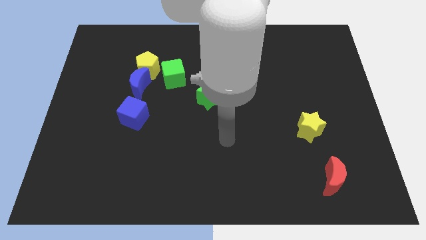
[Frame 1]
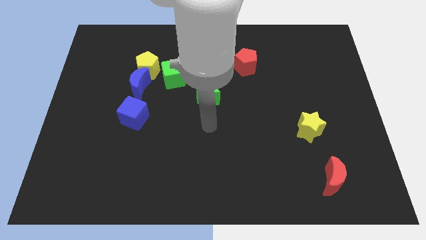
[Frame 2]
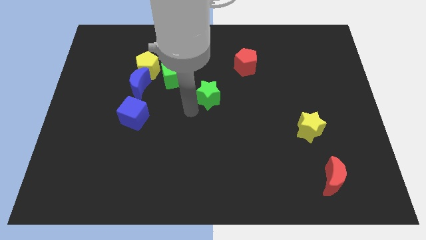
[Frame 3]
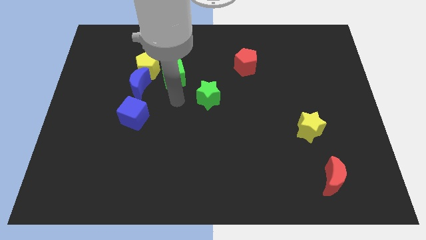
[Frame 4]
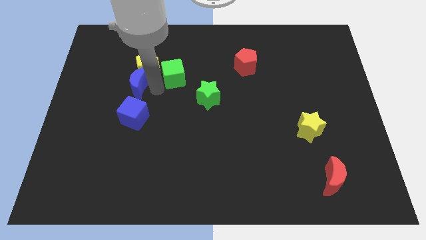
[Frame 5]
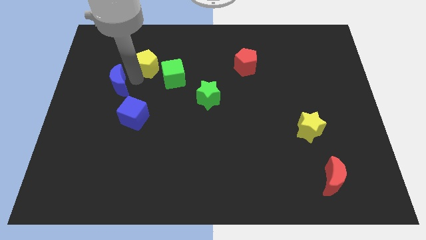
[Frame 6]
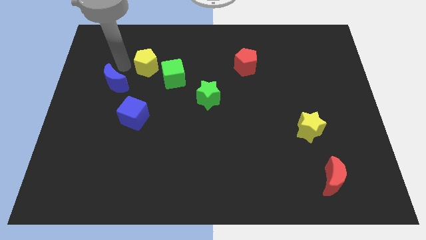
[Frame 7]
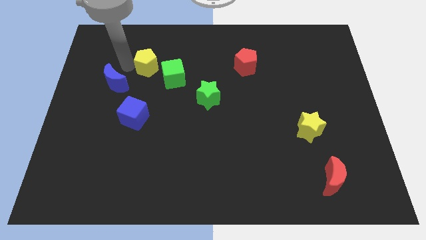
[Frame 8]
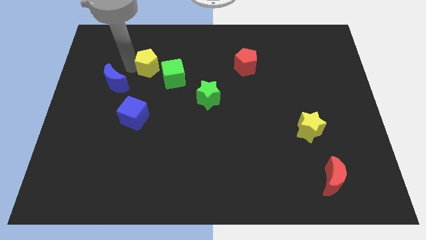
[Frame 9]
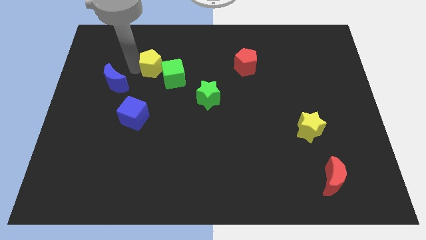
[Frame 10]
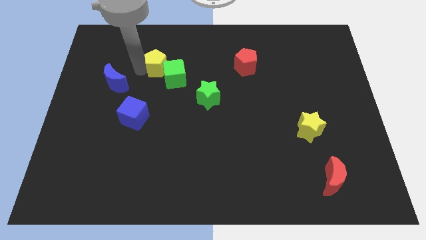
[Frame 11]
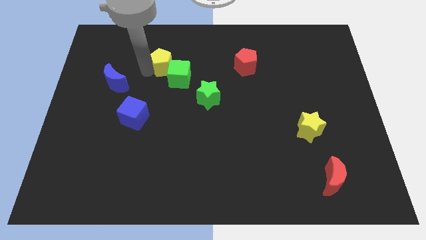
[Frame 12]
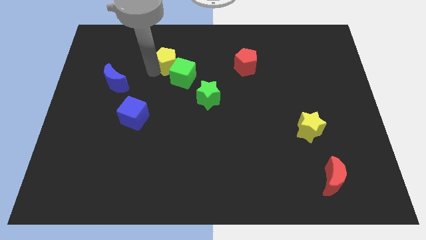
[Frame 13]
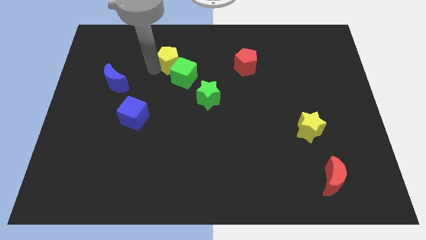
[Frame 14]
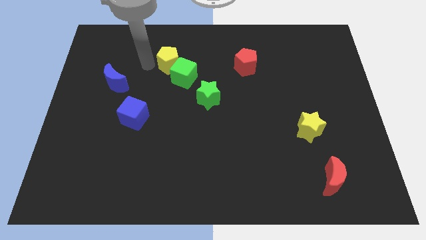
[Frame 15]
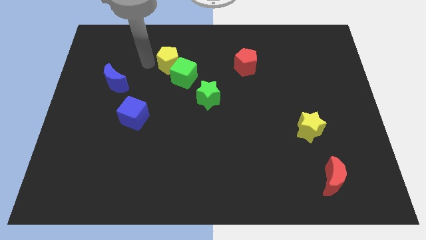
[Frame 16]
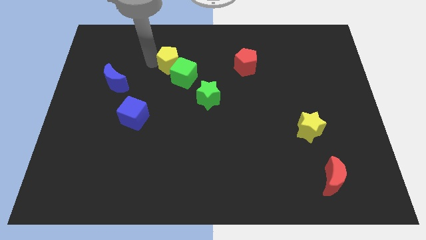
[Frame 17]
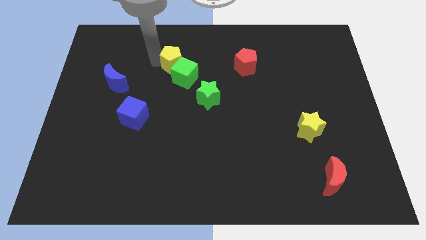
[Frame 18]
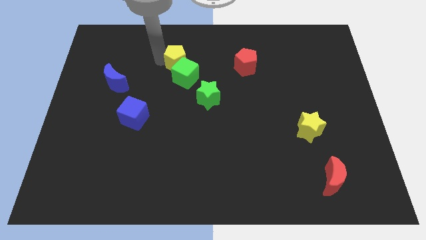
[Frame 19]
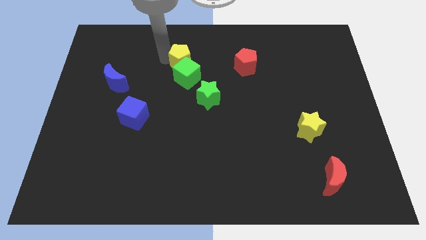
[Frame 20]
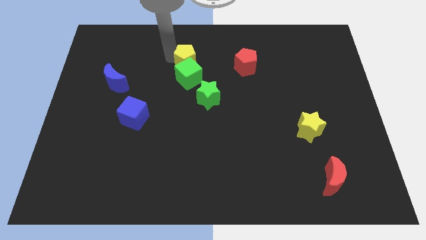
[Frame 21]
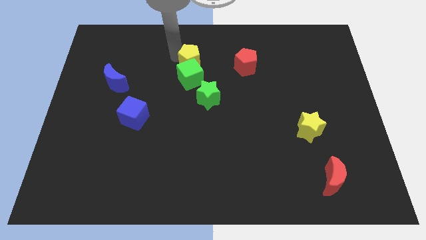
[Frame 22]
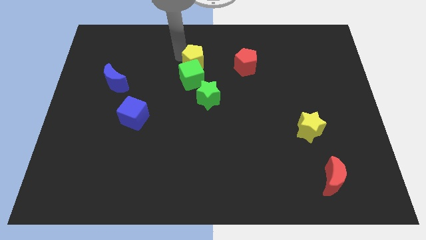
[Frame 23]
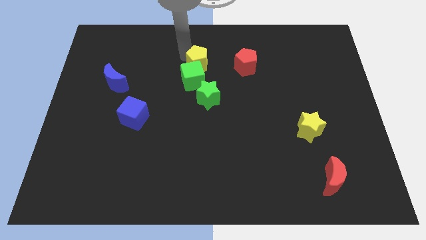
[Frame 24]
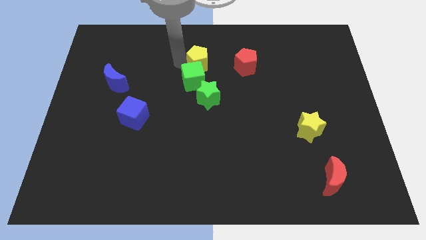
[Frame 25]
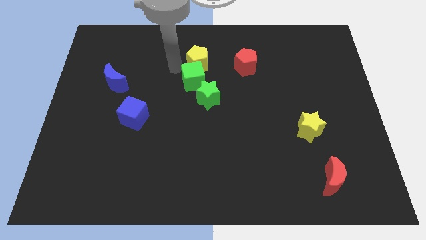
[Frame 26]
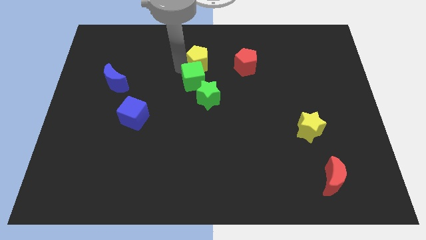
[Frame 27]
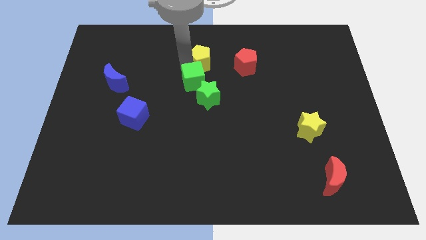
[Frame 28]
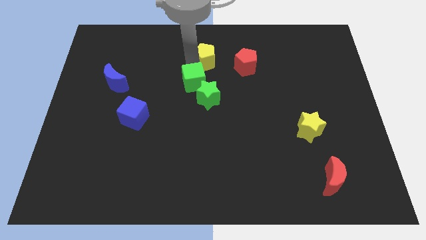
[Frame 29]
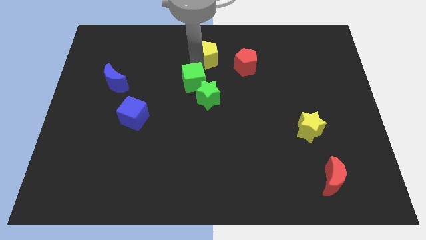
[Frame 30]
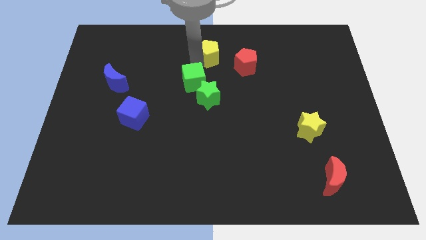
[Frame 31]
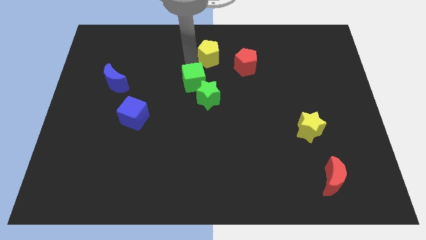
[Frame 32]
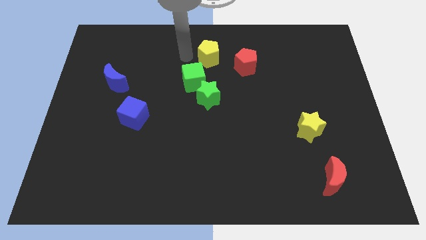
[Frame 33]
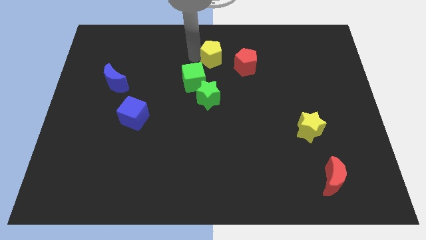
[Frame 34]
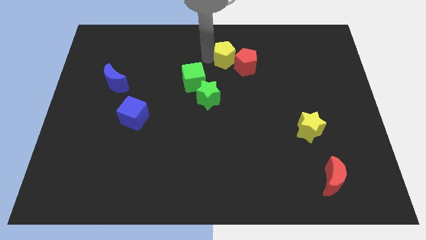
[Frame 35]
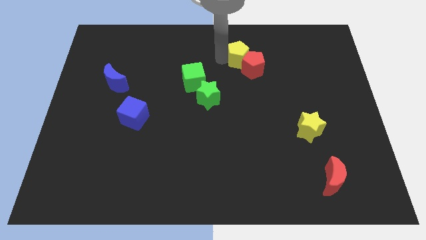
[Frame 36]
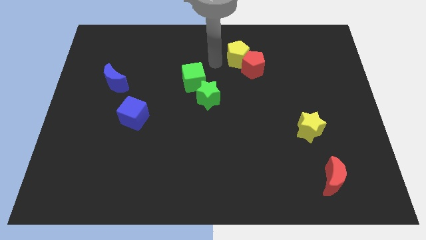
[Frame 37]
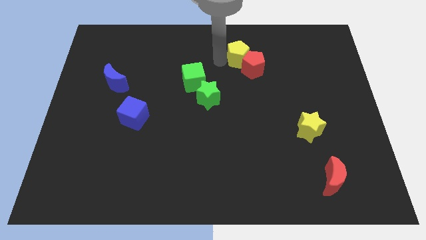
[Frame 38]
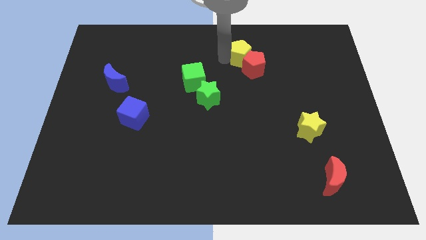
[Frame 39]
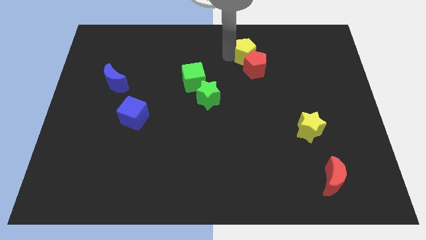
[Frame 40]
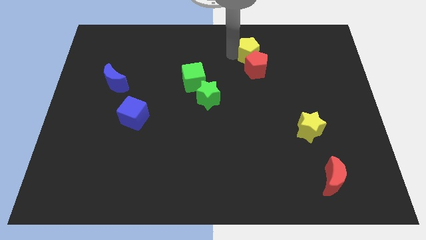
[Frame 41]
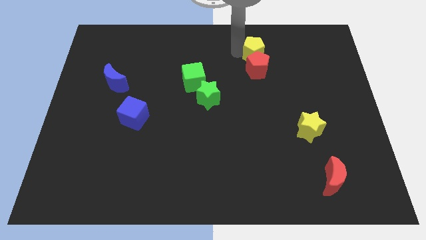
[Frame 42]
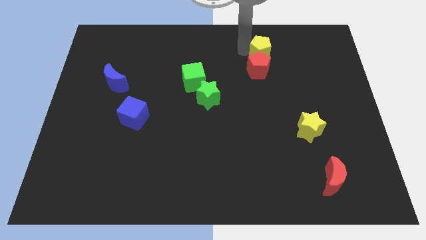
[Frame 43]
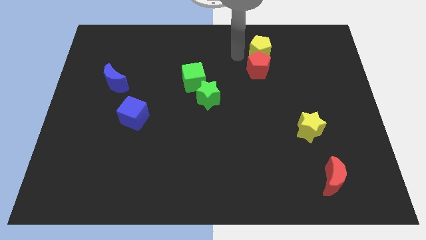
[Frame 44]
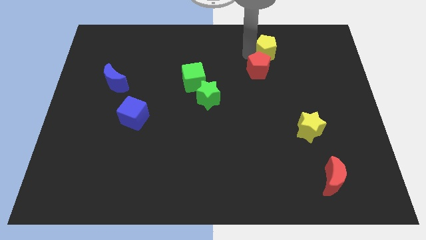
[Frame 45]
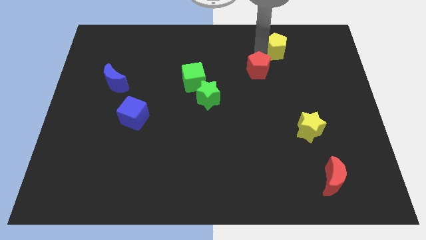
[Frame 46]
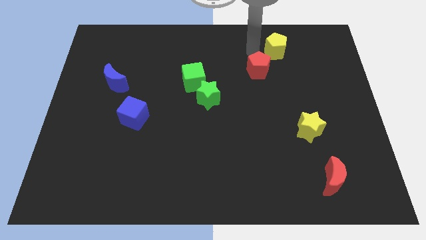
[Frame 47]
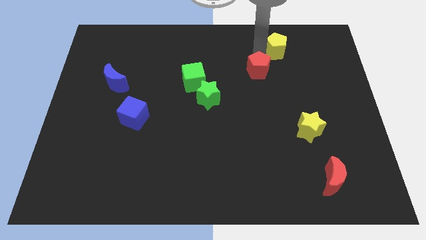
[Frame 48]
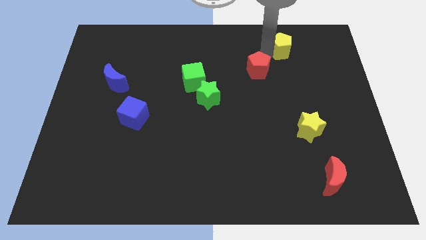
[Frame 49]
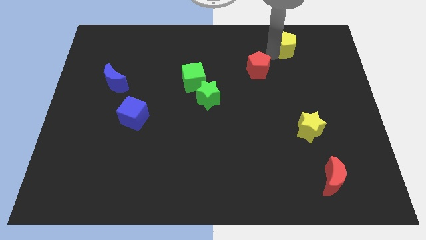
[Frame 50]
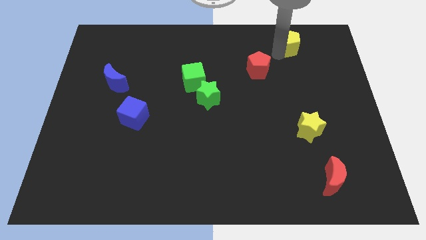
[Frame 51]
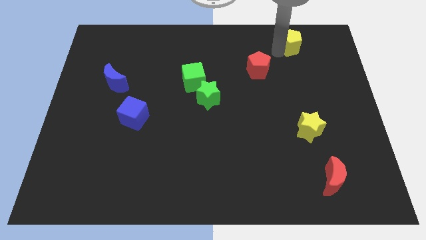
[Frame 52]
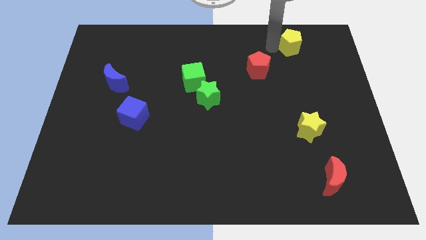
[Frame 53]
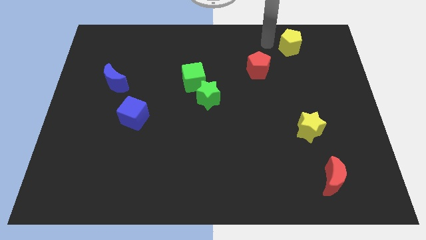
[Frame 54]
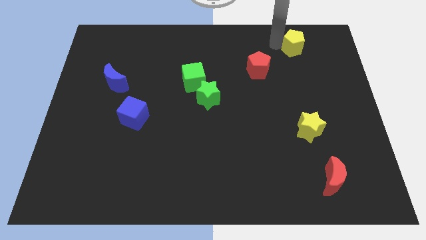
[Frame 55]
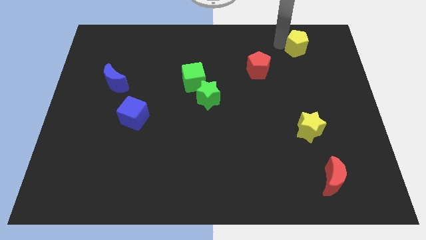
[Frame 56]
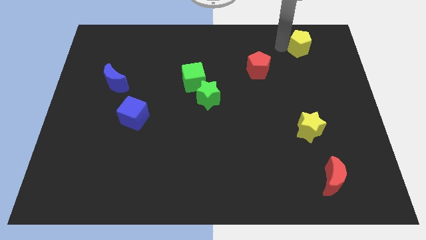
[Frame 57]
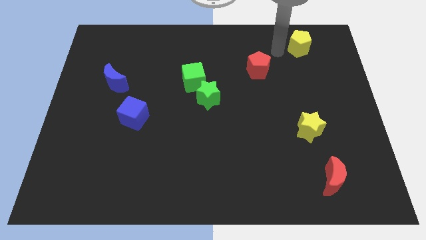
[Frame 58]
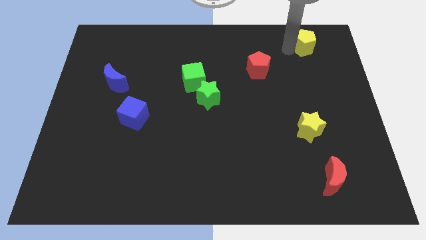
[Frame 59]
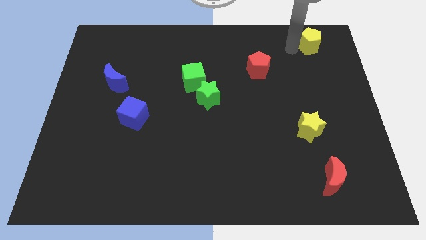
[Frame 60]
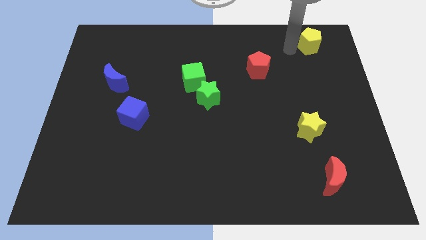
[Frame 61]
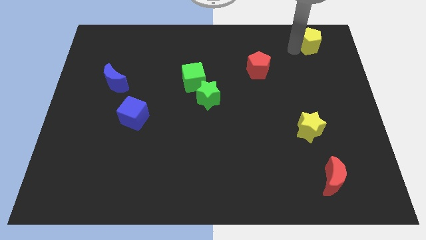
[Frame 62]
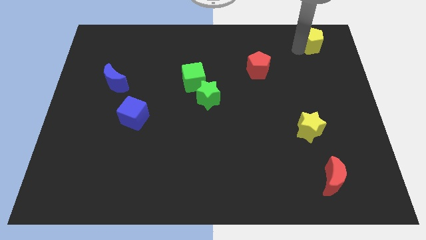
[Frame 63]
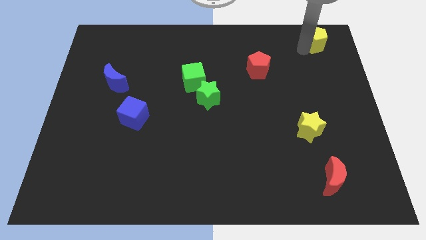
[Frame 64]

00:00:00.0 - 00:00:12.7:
slide the yellow pentagon to the upper right corner
